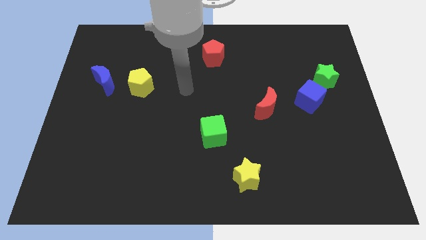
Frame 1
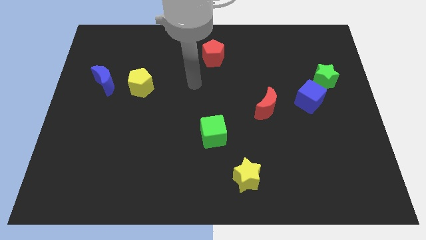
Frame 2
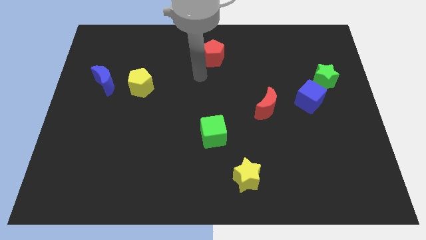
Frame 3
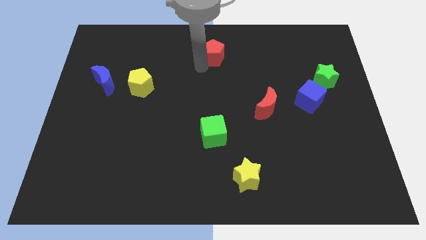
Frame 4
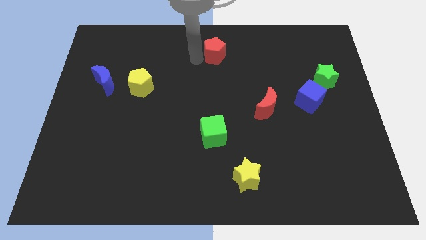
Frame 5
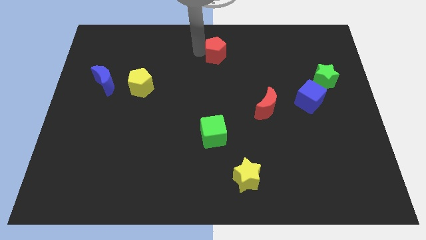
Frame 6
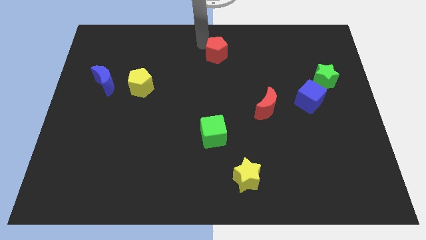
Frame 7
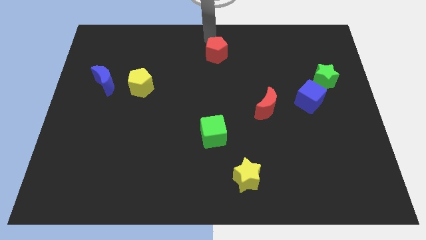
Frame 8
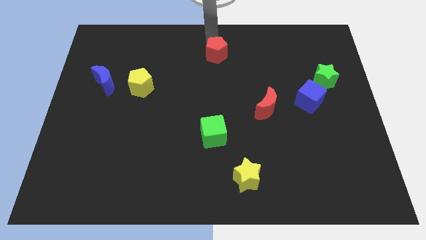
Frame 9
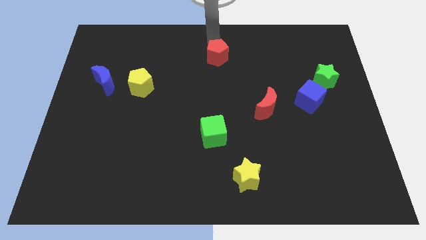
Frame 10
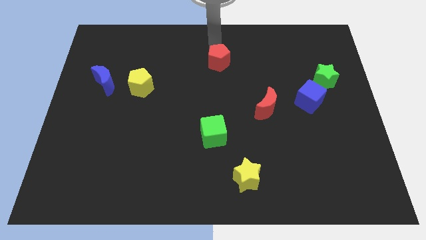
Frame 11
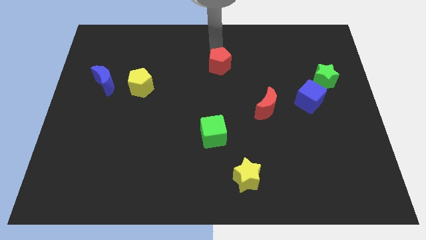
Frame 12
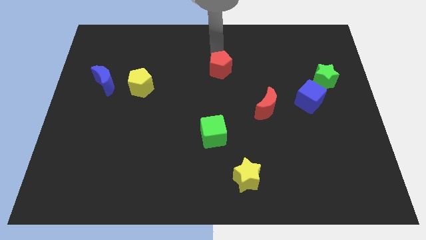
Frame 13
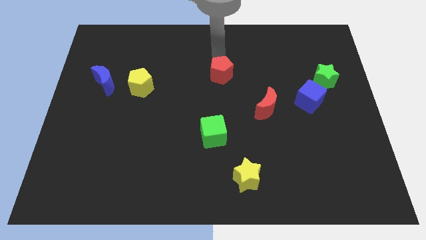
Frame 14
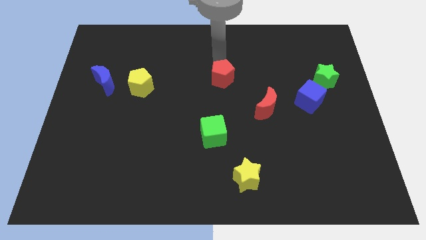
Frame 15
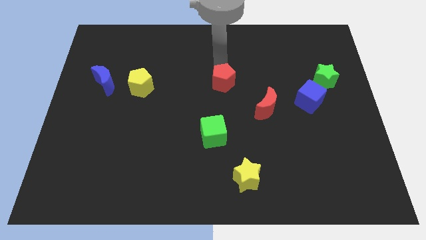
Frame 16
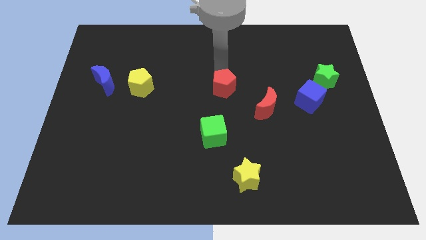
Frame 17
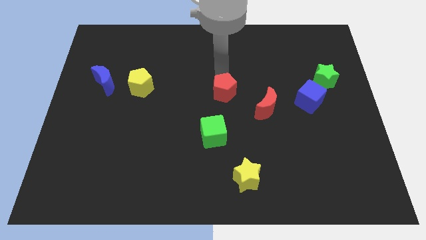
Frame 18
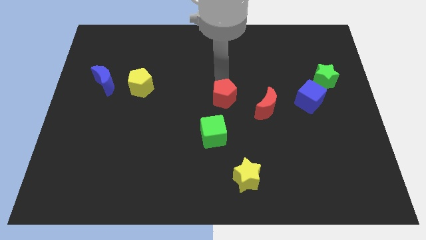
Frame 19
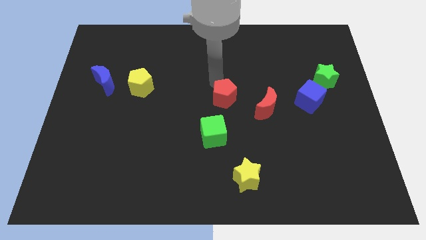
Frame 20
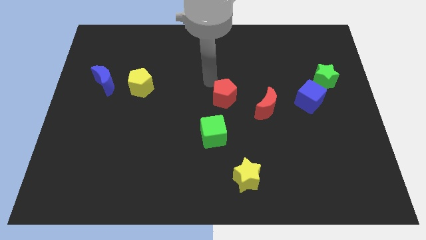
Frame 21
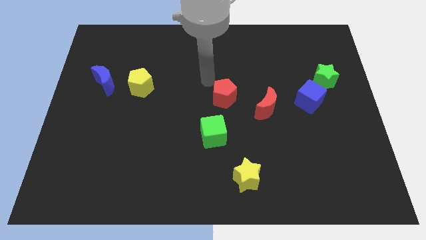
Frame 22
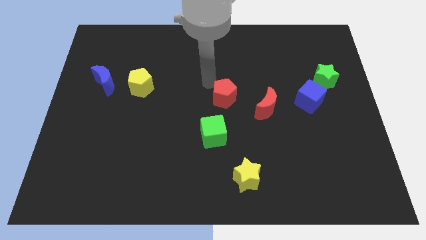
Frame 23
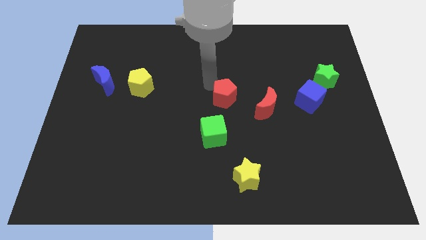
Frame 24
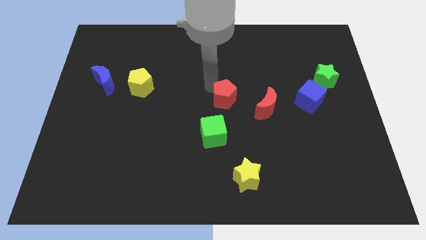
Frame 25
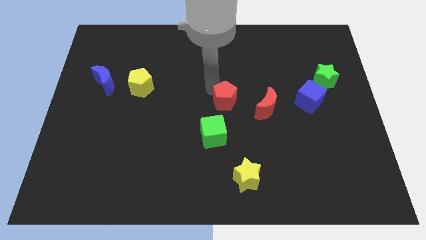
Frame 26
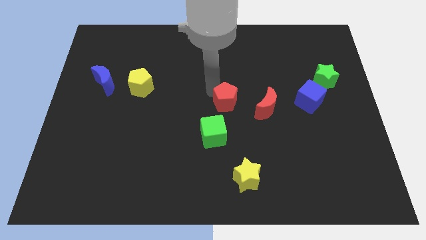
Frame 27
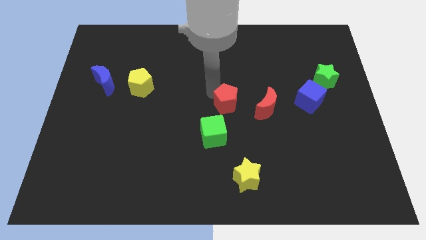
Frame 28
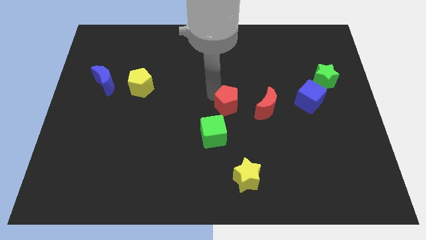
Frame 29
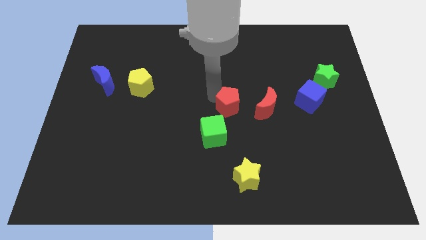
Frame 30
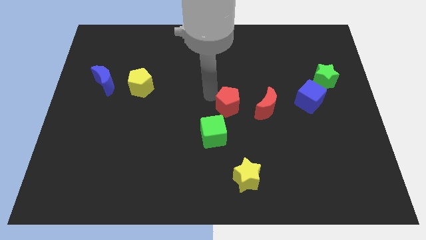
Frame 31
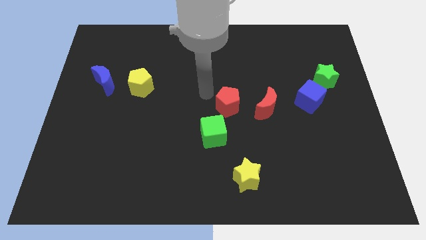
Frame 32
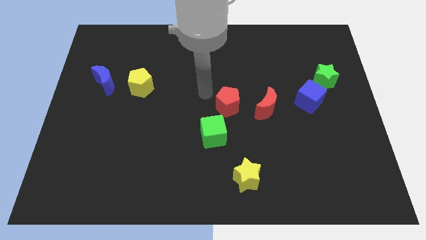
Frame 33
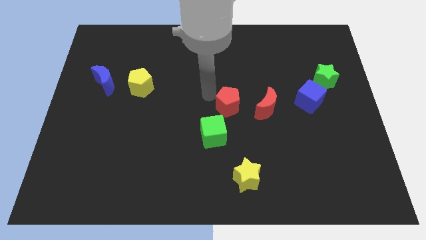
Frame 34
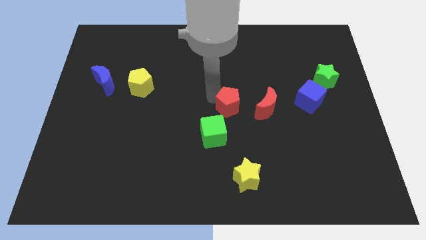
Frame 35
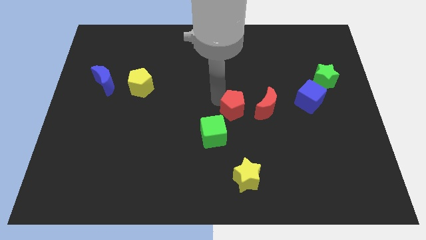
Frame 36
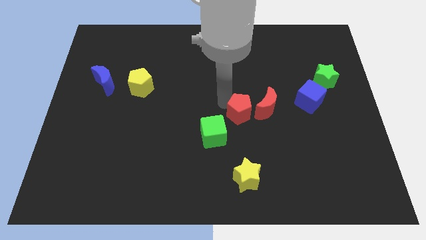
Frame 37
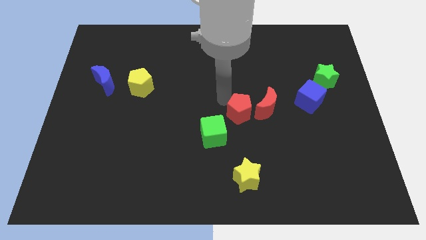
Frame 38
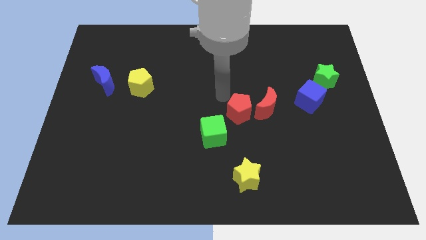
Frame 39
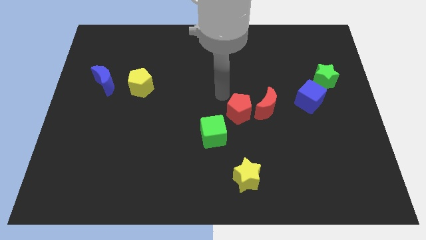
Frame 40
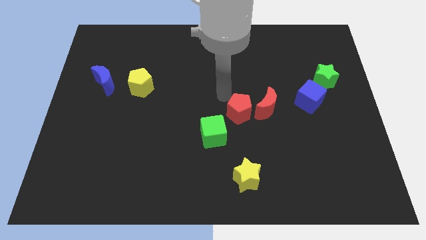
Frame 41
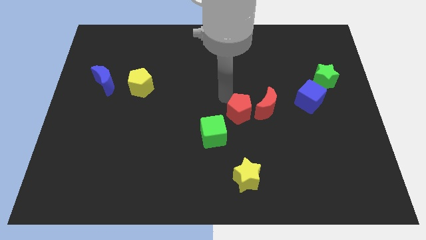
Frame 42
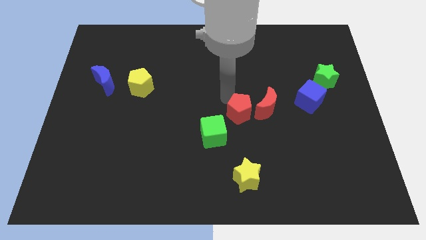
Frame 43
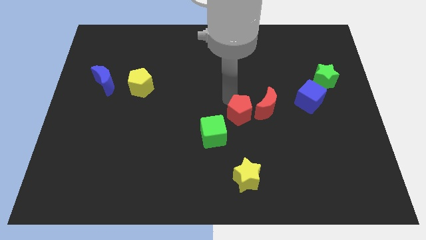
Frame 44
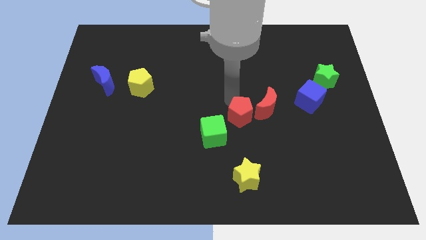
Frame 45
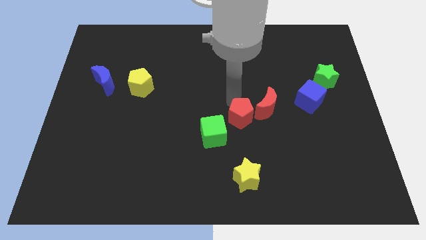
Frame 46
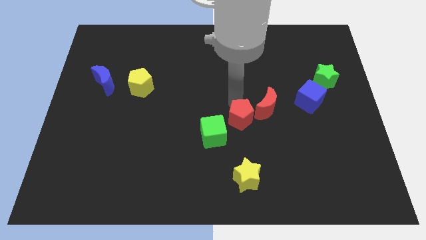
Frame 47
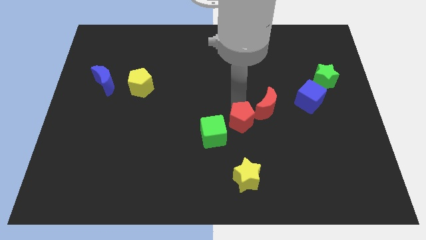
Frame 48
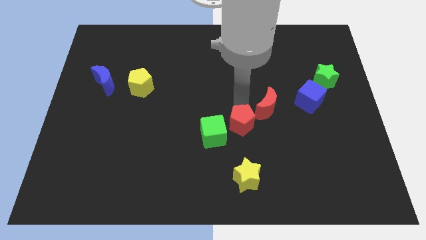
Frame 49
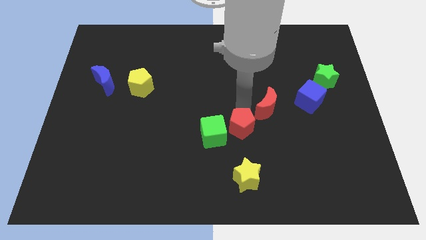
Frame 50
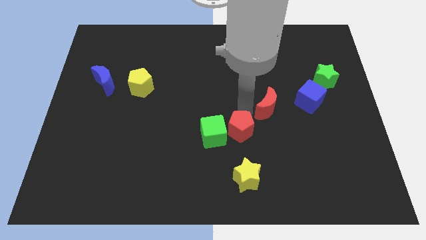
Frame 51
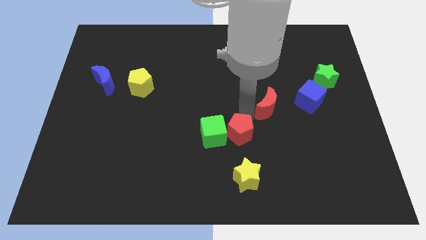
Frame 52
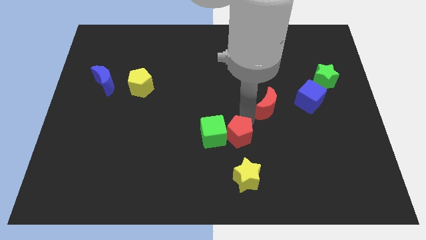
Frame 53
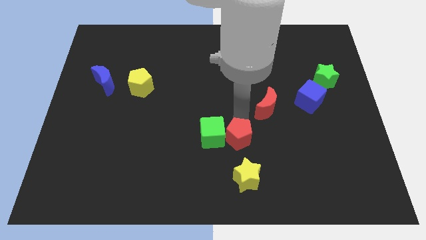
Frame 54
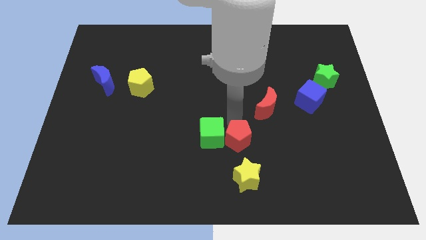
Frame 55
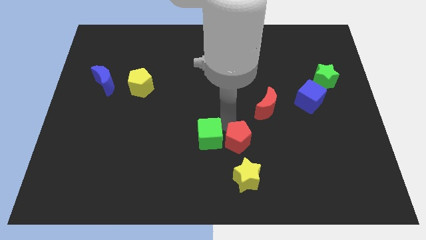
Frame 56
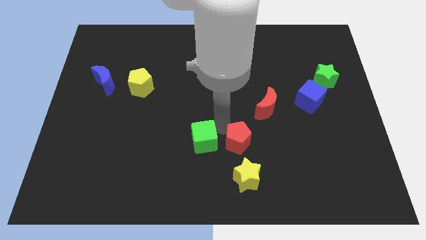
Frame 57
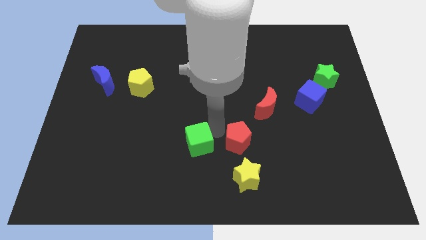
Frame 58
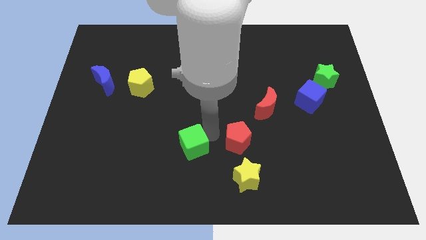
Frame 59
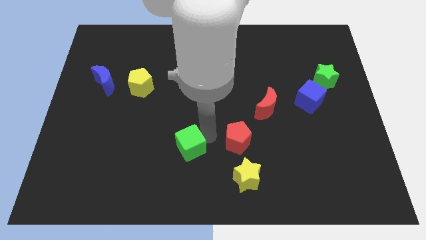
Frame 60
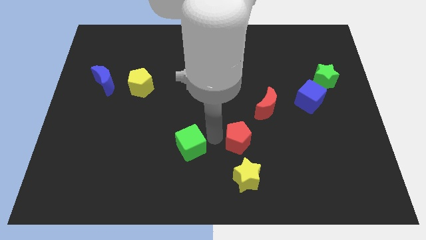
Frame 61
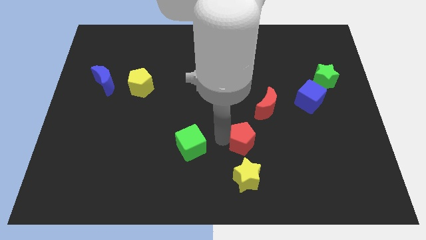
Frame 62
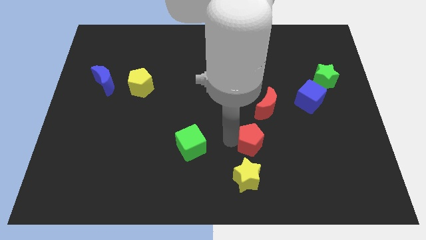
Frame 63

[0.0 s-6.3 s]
move the red pentagon to the bottom side of the red moon
